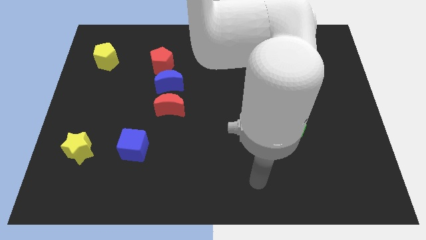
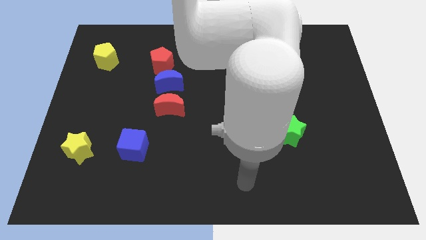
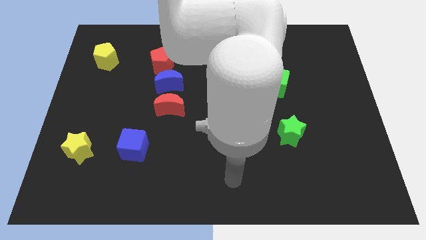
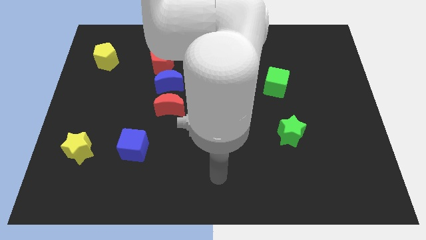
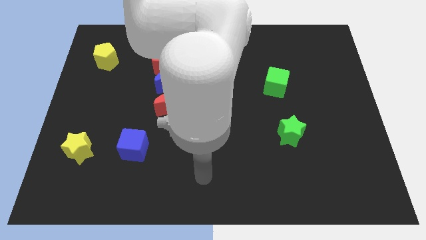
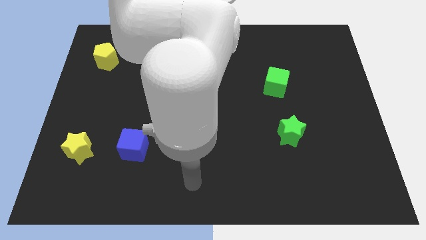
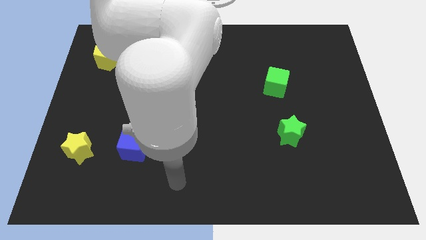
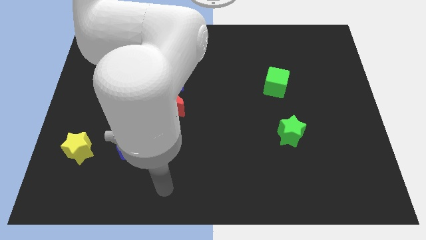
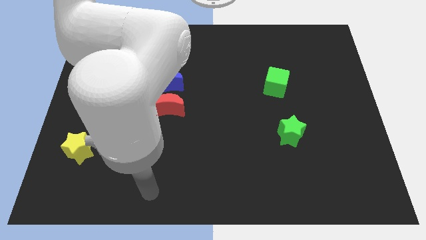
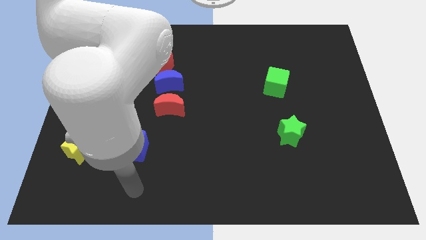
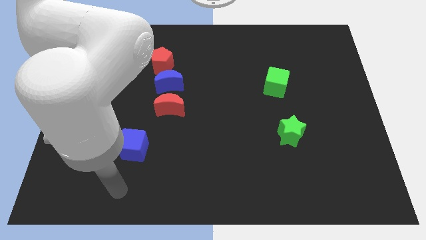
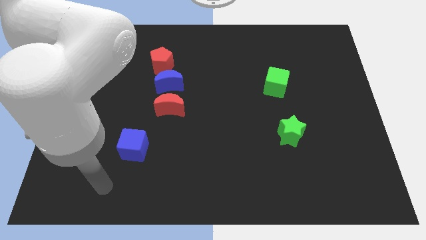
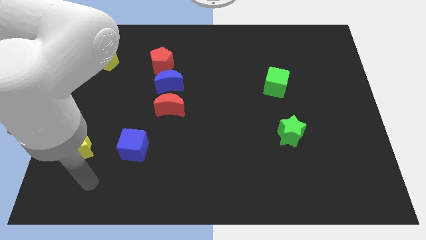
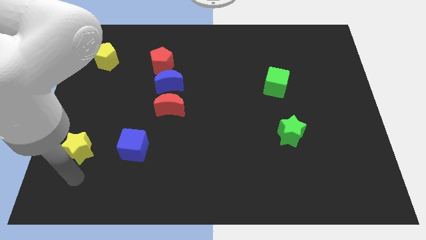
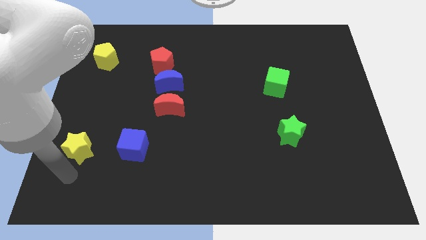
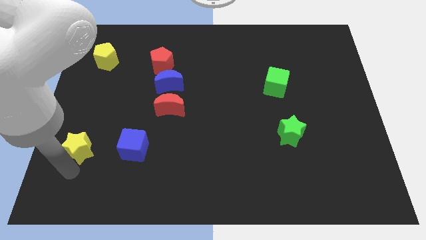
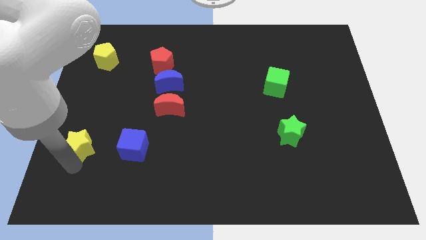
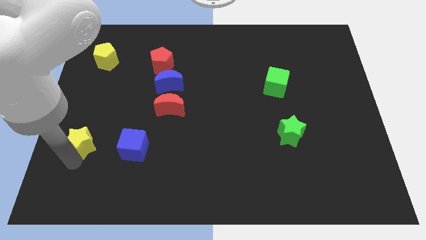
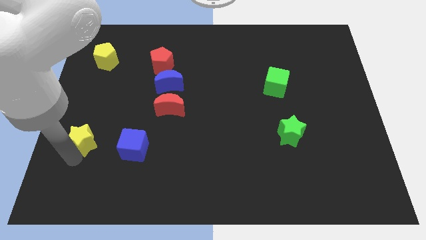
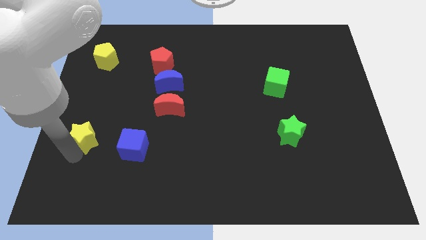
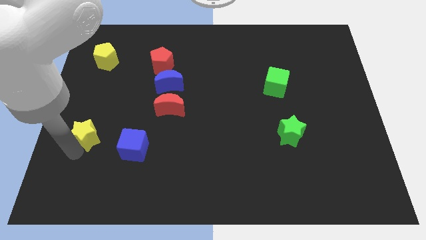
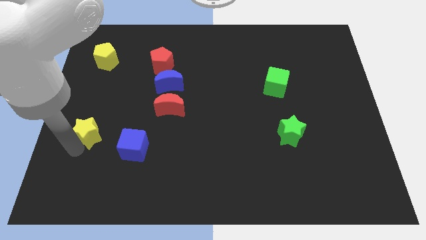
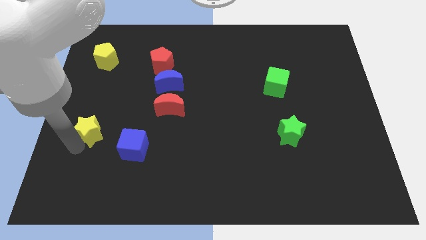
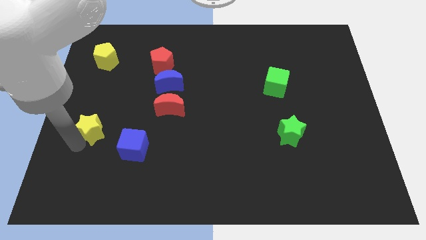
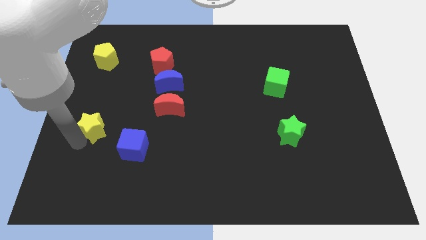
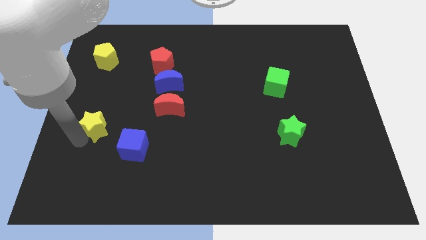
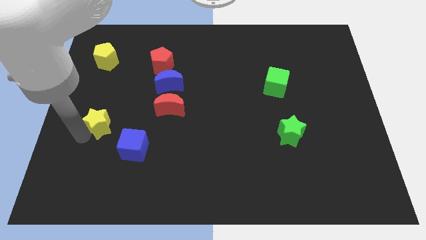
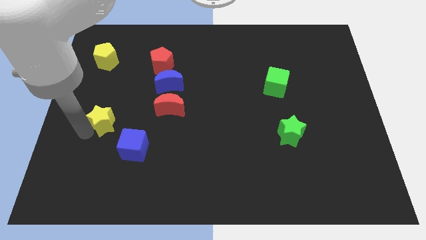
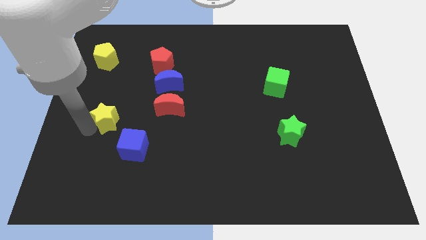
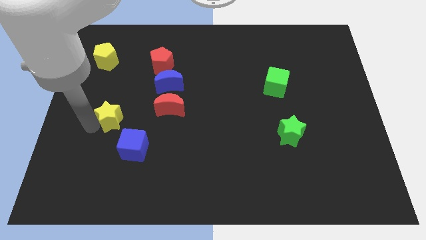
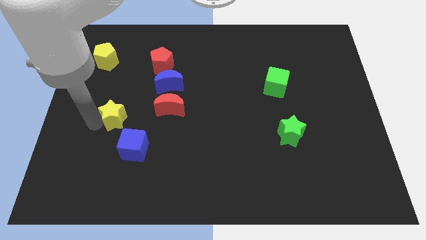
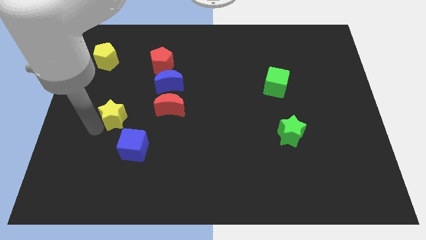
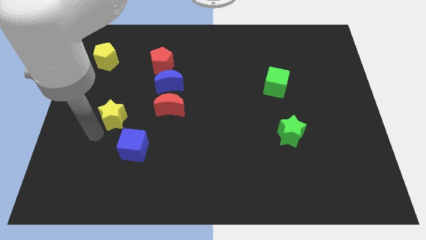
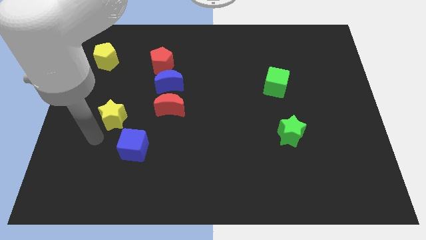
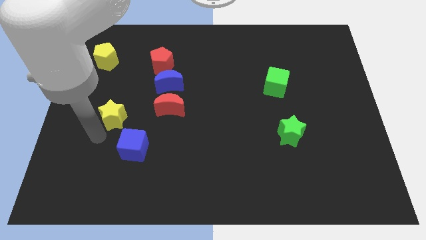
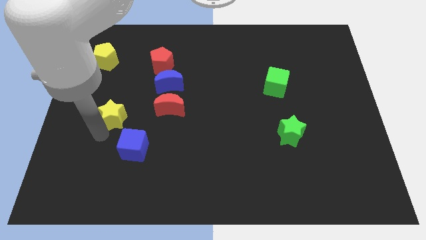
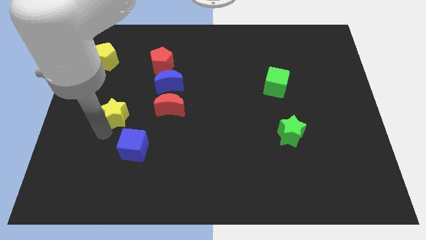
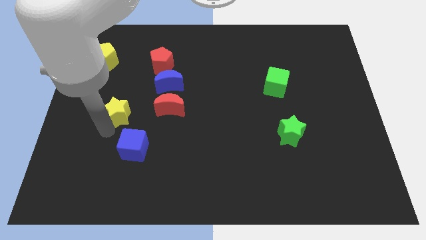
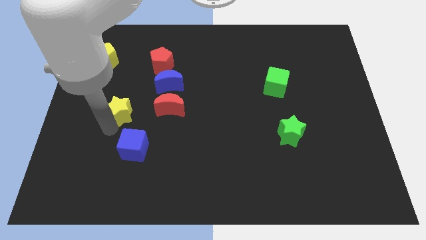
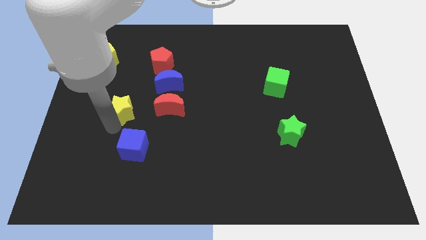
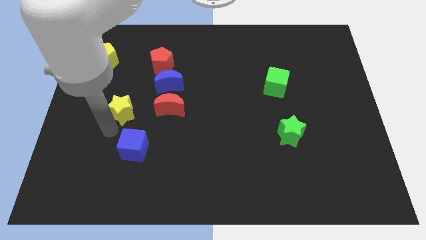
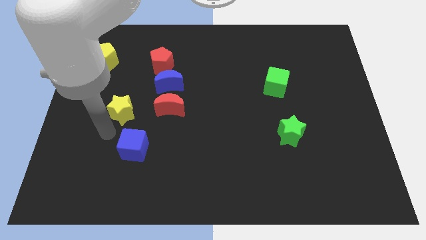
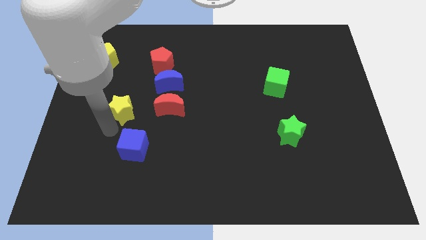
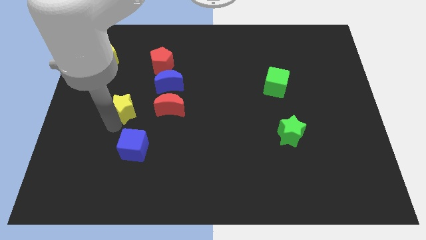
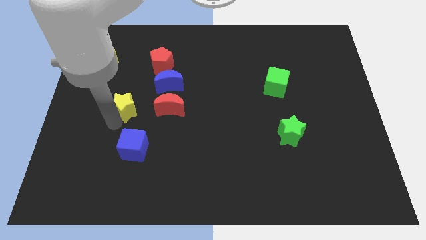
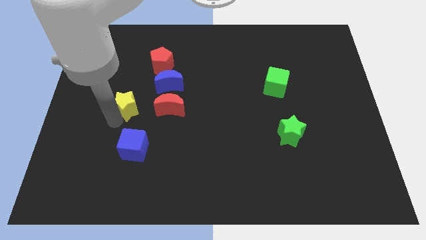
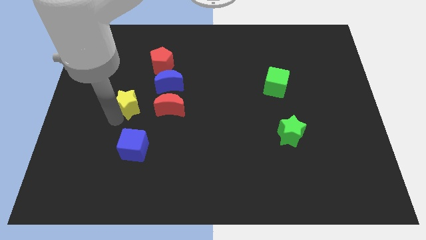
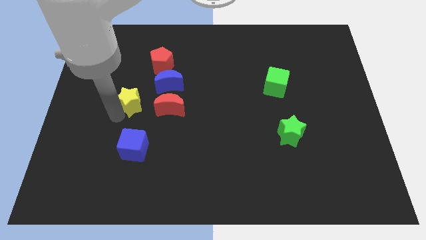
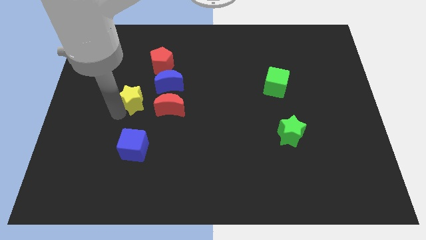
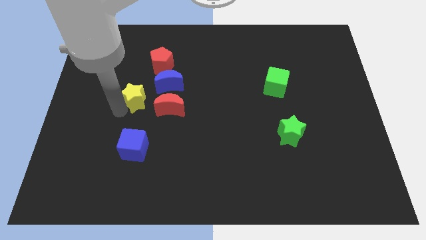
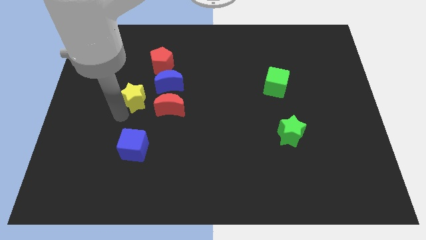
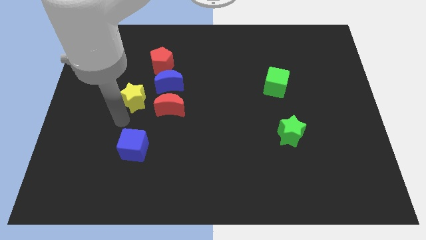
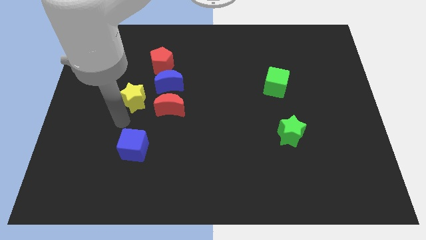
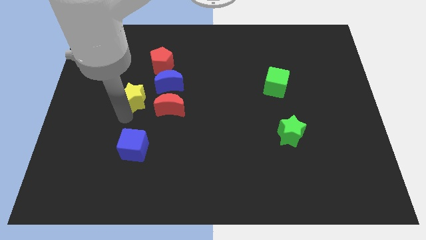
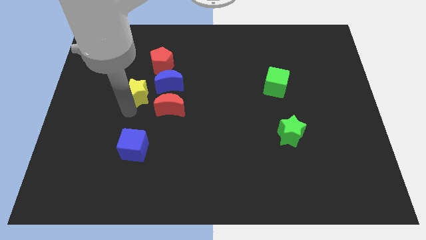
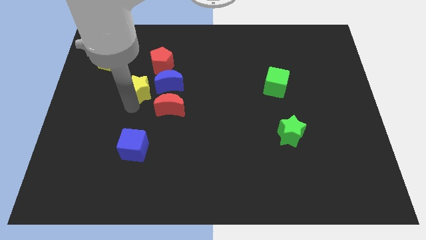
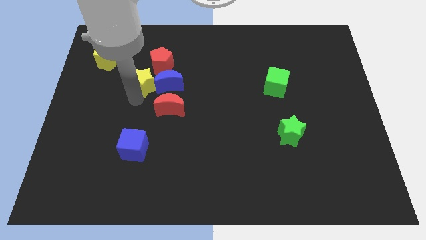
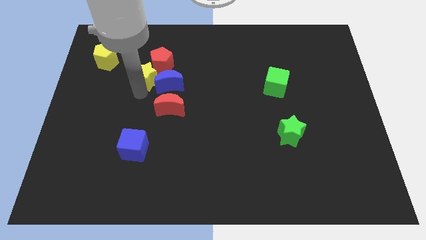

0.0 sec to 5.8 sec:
push the yellow star next to the red pentagon

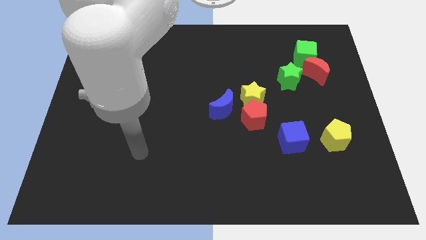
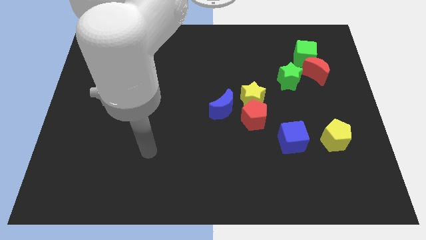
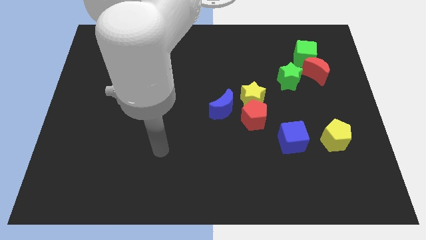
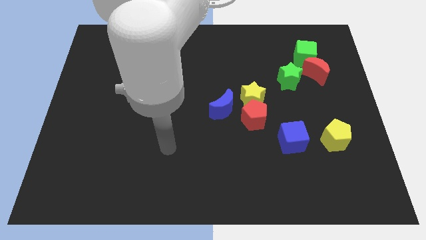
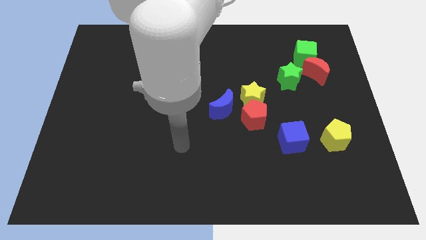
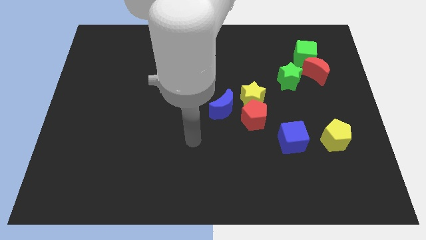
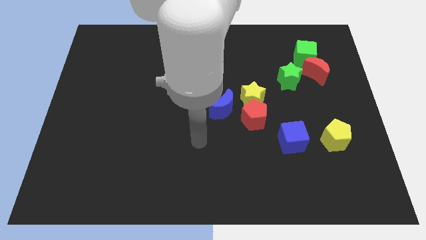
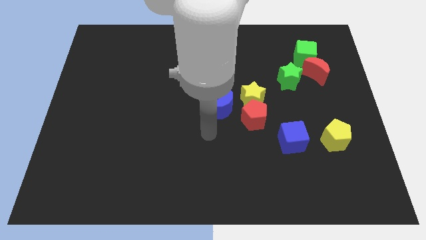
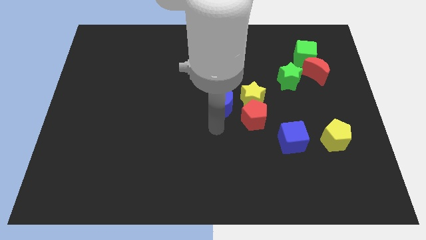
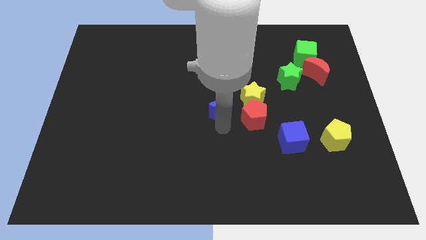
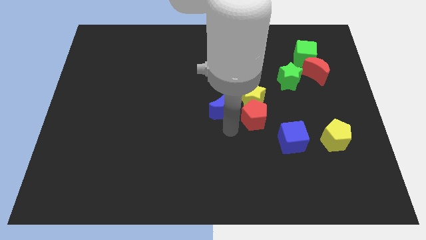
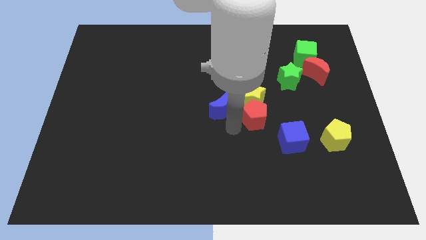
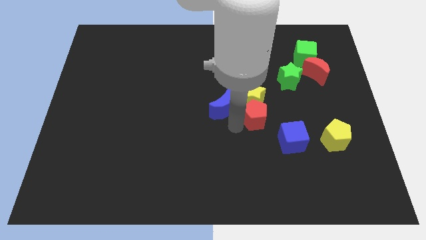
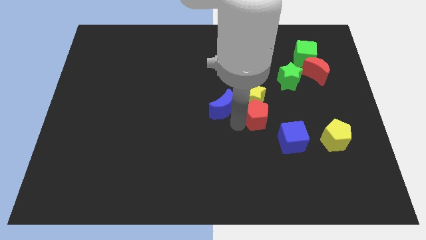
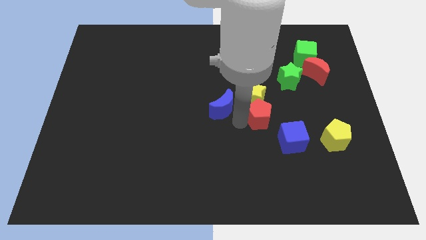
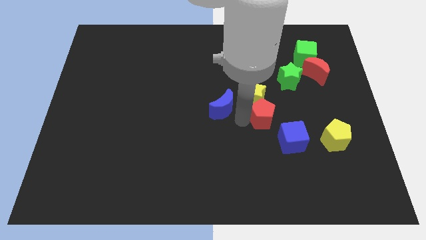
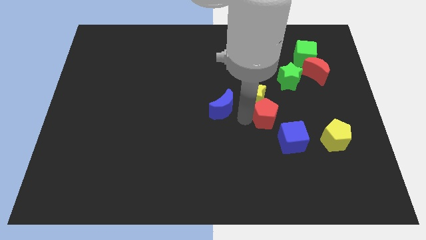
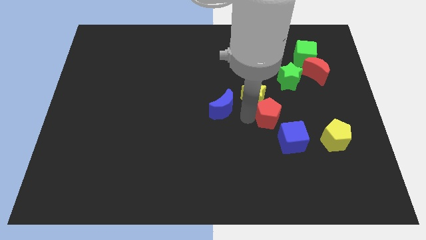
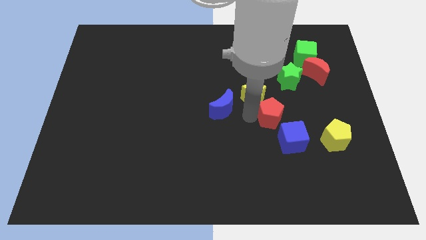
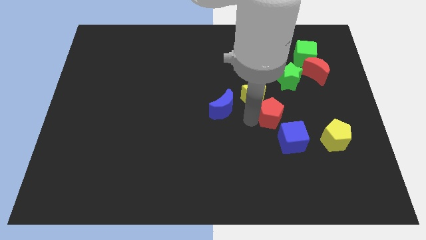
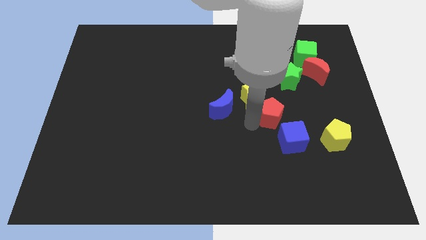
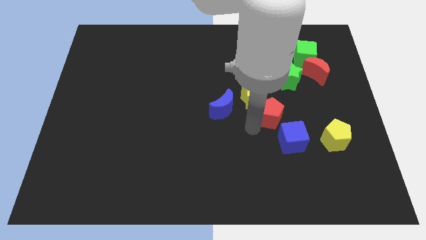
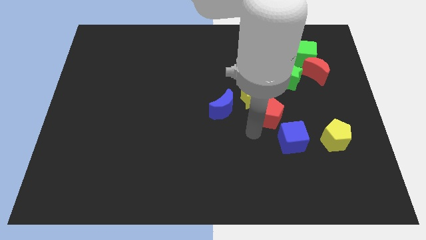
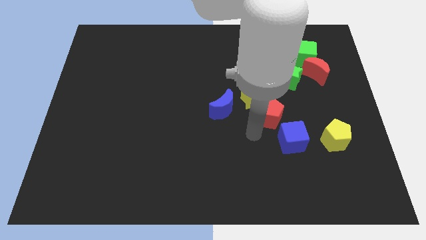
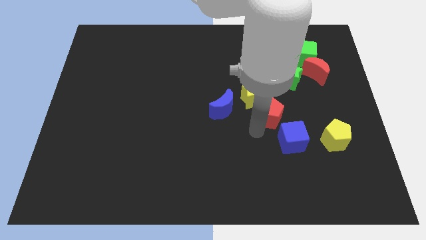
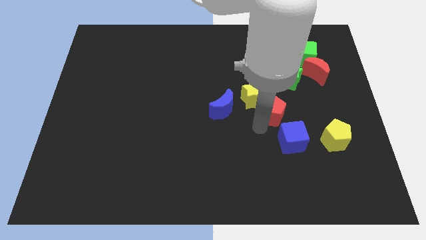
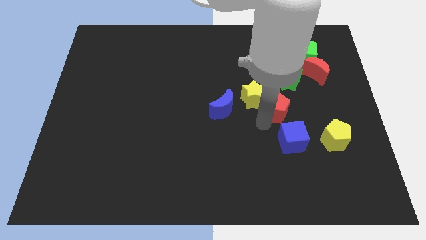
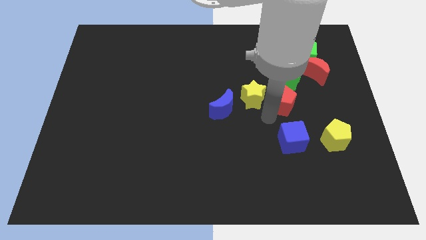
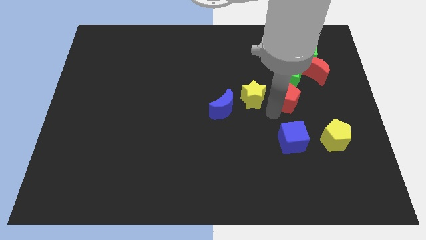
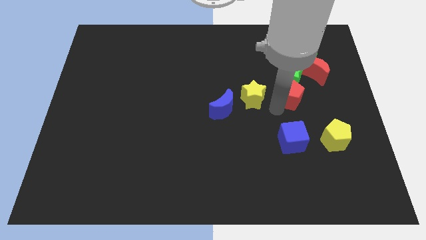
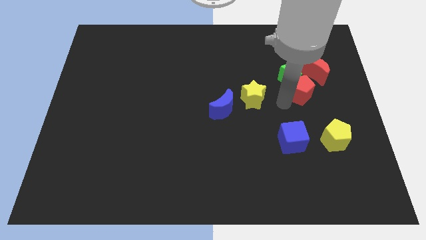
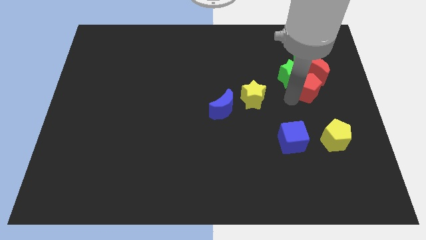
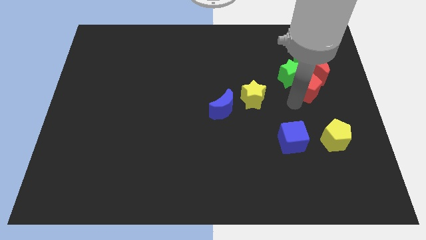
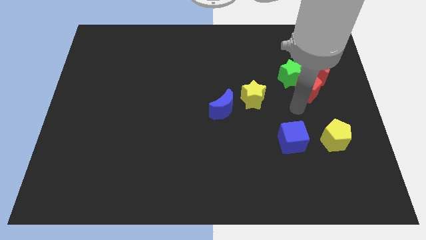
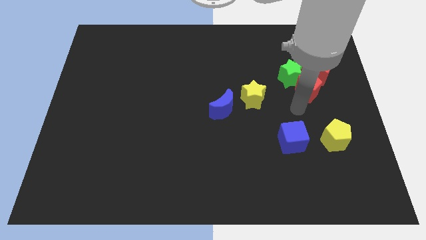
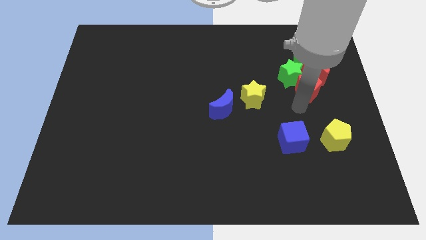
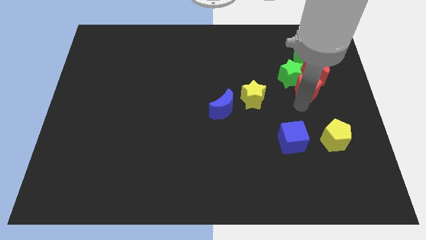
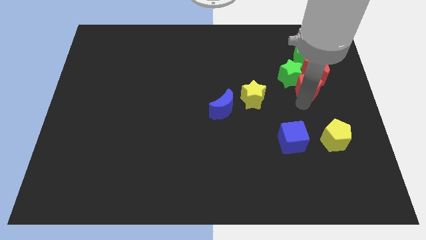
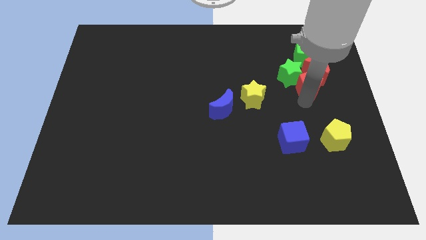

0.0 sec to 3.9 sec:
push the red pentagon towards the red moon
